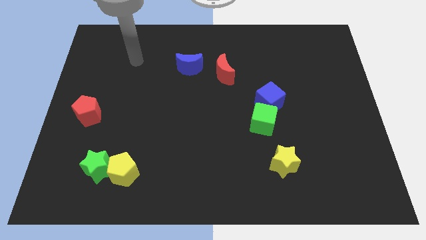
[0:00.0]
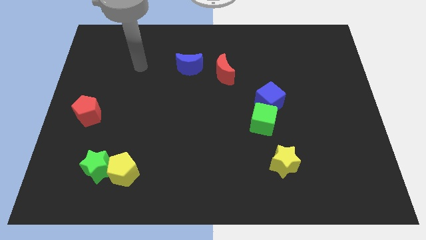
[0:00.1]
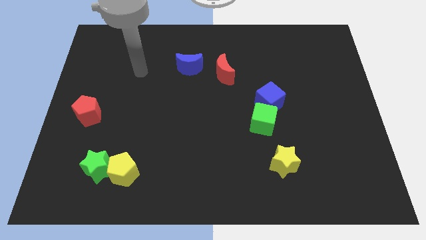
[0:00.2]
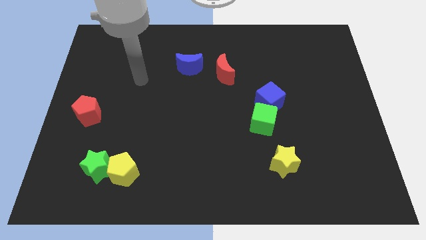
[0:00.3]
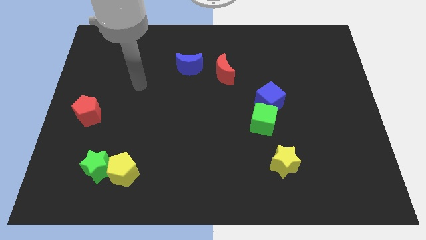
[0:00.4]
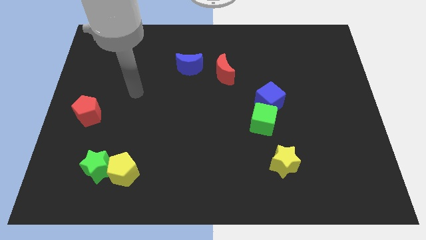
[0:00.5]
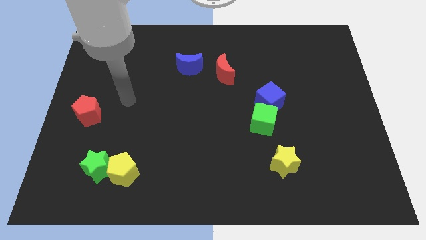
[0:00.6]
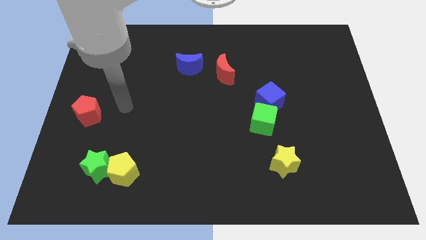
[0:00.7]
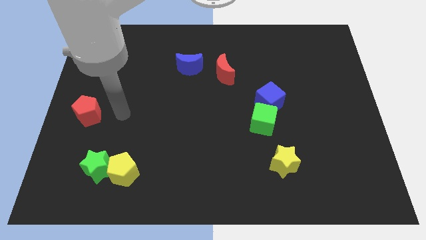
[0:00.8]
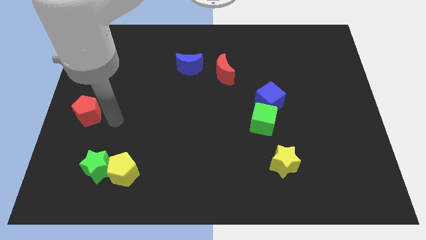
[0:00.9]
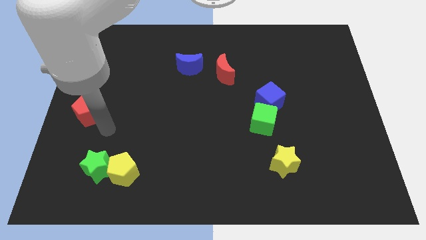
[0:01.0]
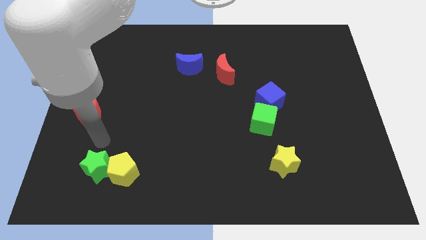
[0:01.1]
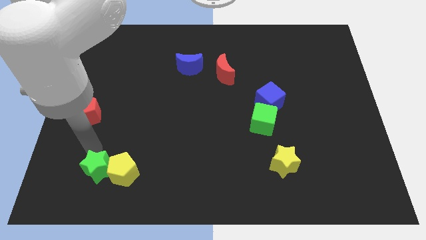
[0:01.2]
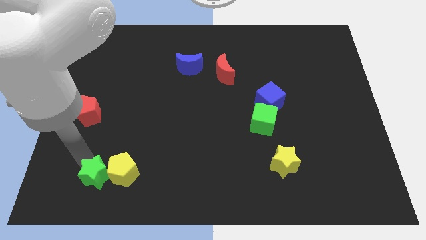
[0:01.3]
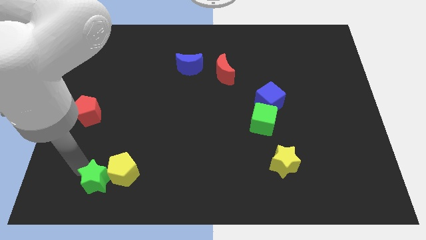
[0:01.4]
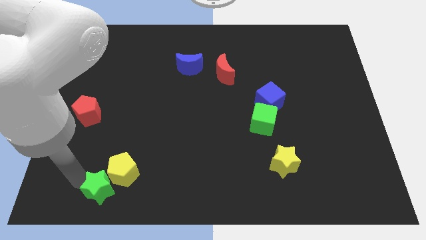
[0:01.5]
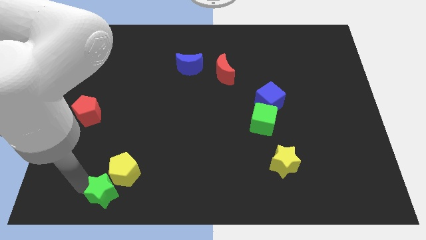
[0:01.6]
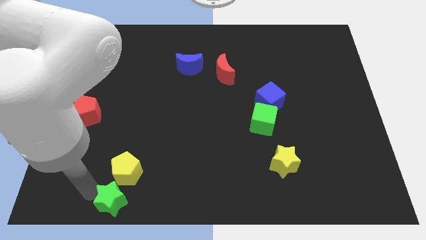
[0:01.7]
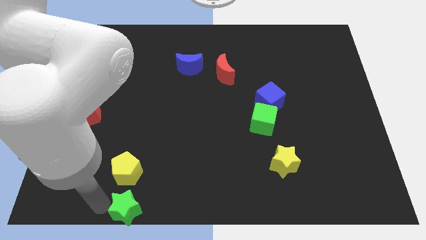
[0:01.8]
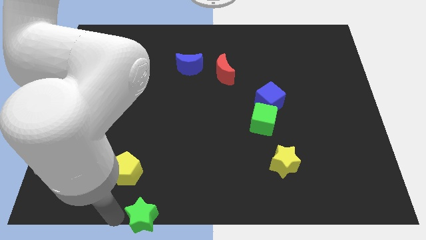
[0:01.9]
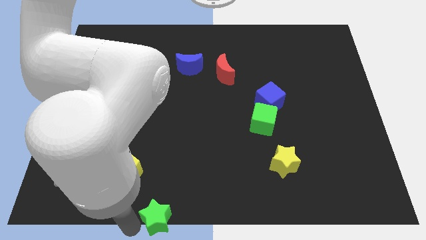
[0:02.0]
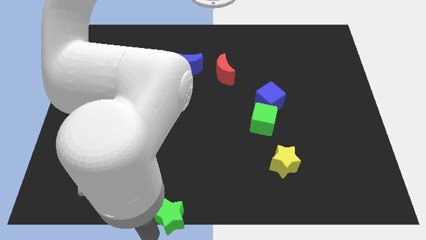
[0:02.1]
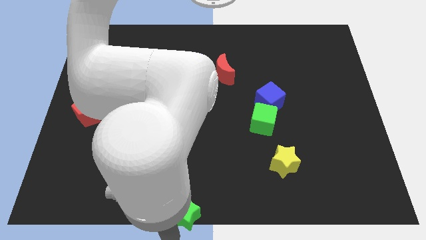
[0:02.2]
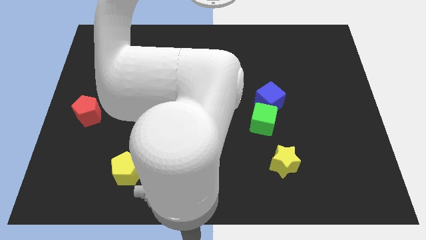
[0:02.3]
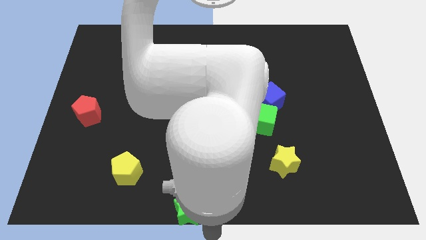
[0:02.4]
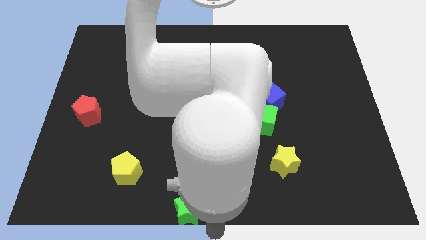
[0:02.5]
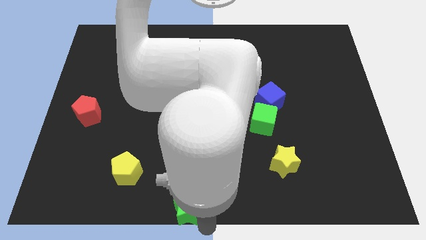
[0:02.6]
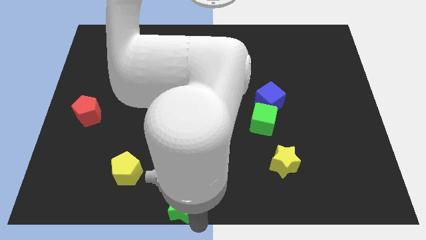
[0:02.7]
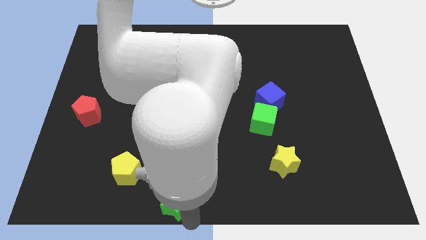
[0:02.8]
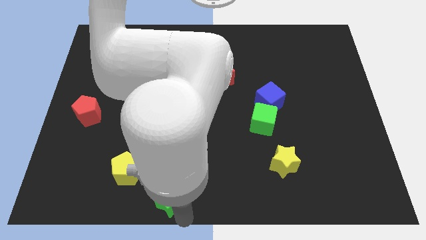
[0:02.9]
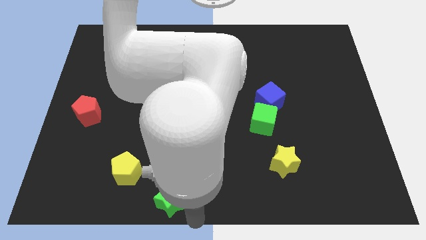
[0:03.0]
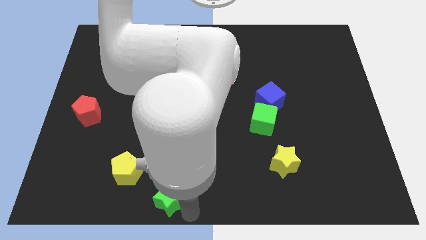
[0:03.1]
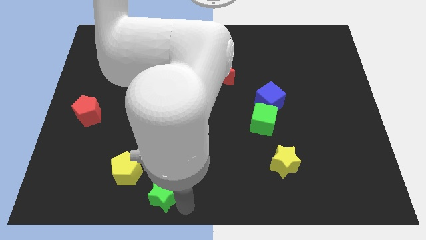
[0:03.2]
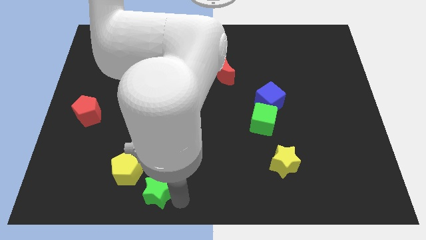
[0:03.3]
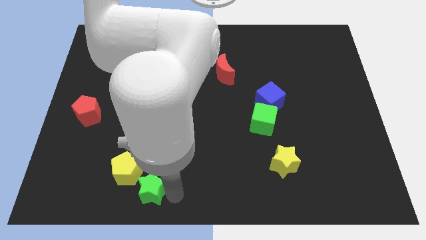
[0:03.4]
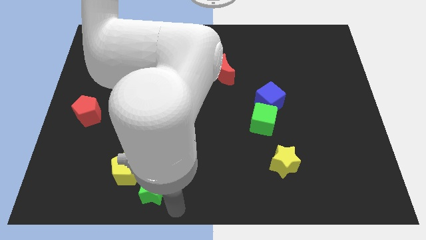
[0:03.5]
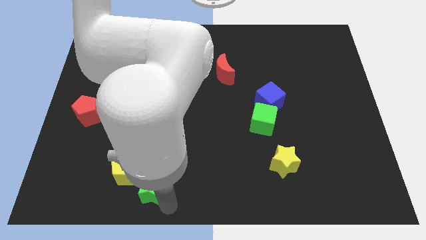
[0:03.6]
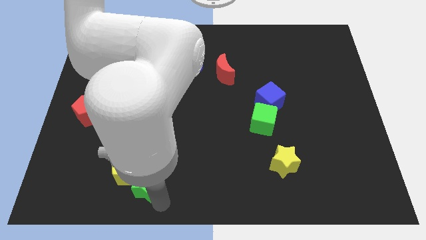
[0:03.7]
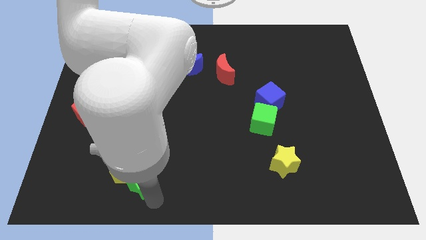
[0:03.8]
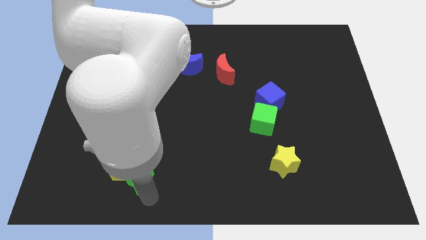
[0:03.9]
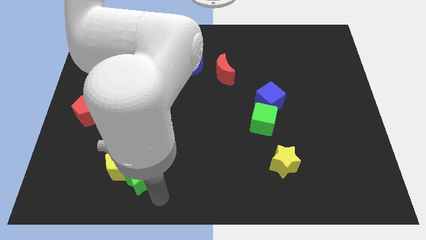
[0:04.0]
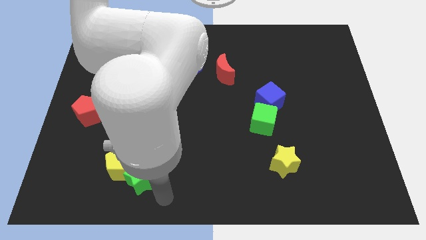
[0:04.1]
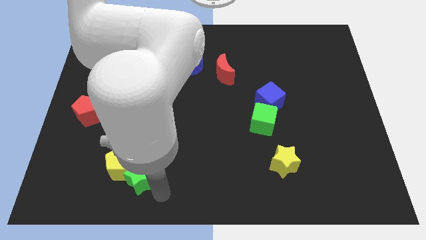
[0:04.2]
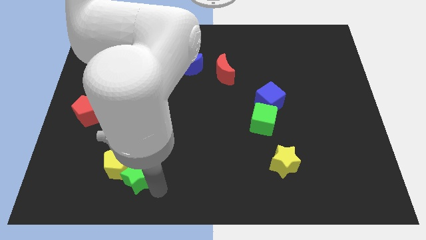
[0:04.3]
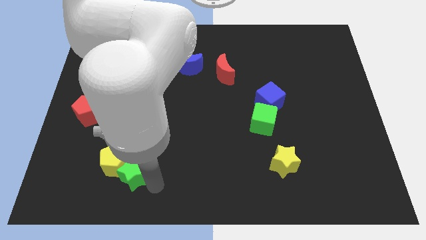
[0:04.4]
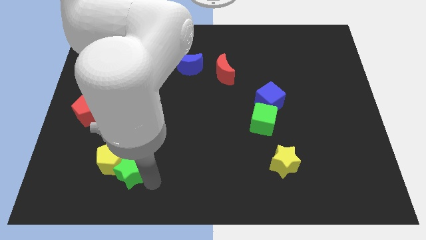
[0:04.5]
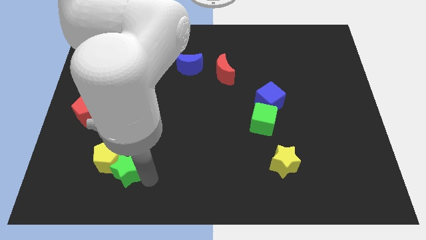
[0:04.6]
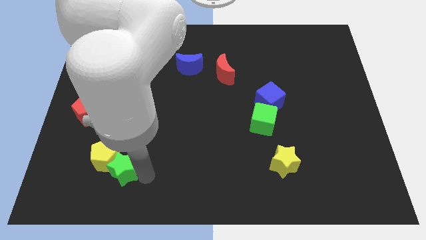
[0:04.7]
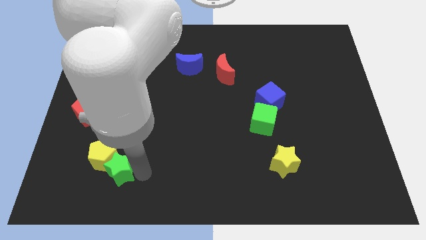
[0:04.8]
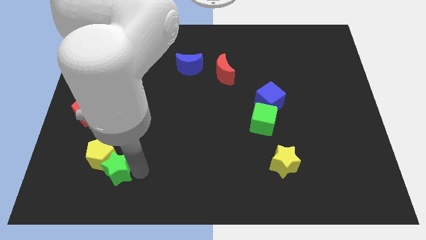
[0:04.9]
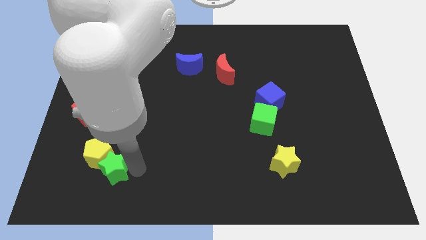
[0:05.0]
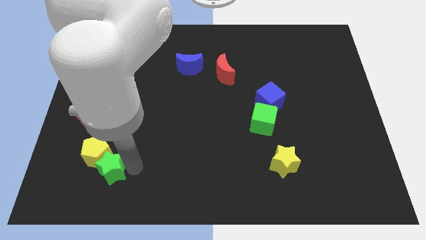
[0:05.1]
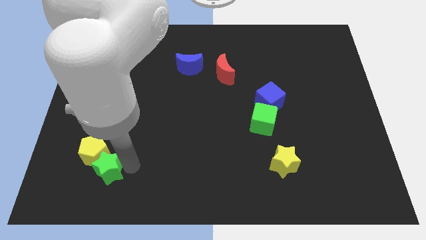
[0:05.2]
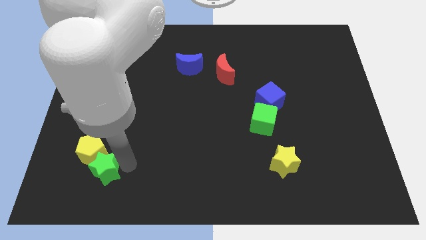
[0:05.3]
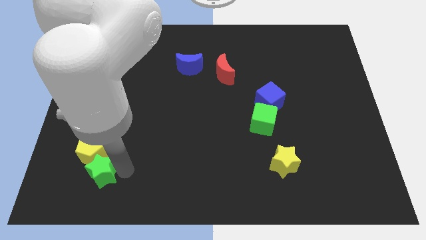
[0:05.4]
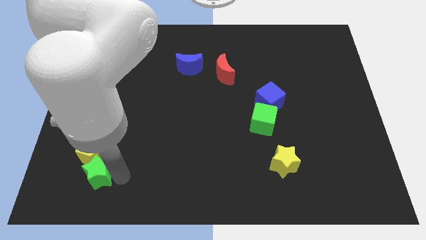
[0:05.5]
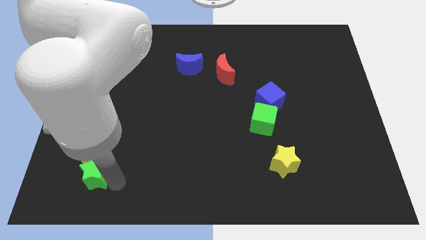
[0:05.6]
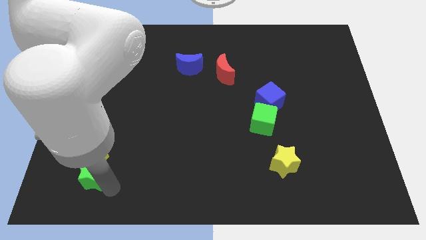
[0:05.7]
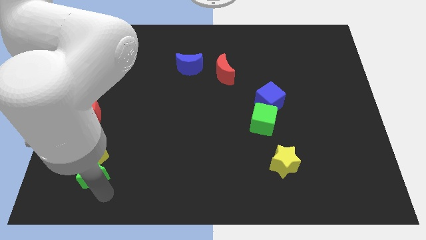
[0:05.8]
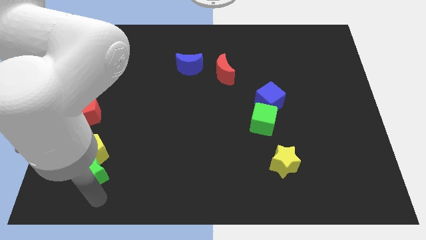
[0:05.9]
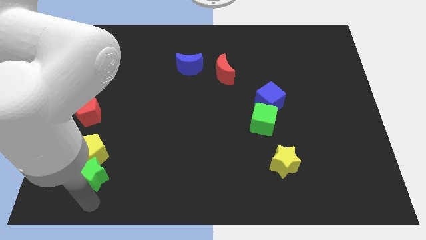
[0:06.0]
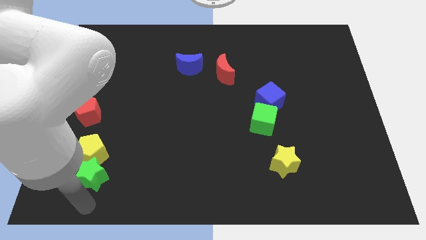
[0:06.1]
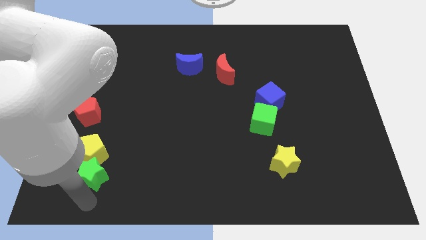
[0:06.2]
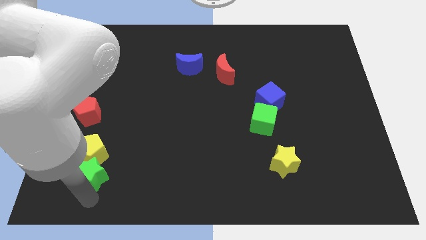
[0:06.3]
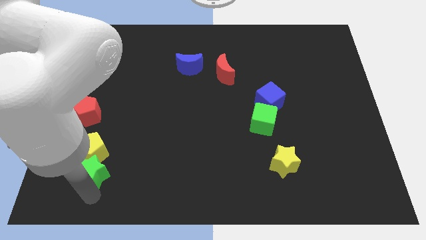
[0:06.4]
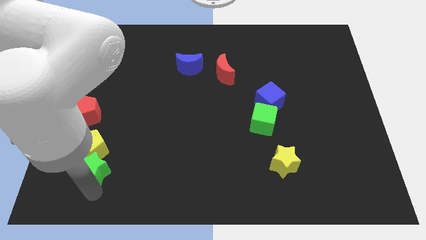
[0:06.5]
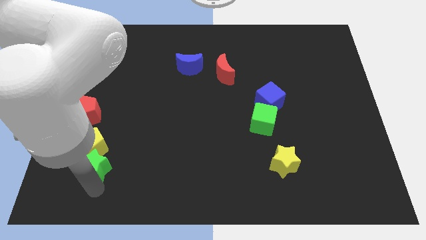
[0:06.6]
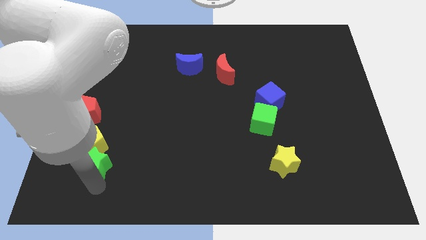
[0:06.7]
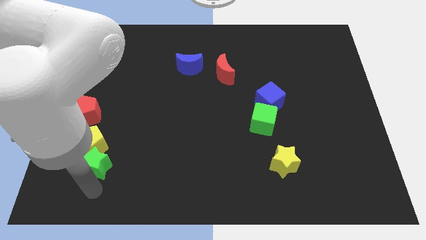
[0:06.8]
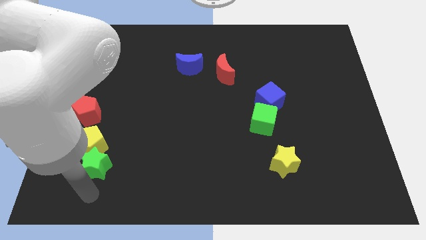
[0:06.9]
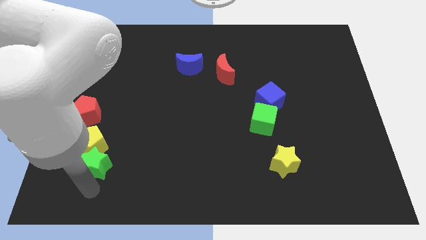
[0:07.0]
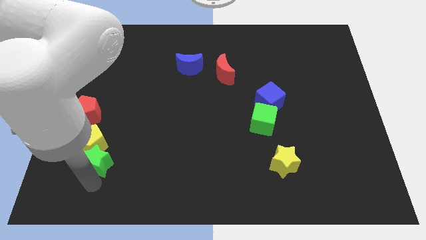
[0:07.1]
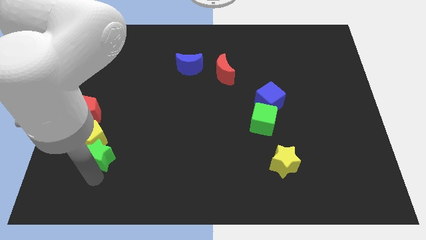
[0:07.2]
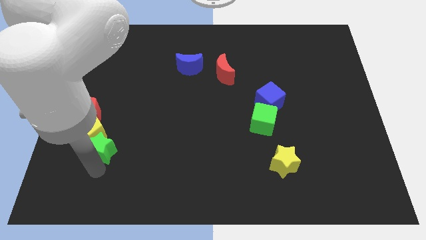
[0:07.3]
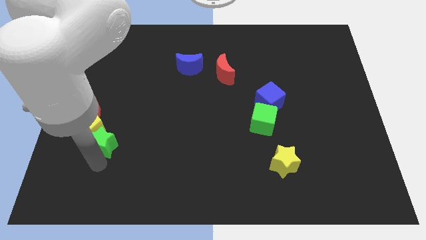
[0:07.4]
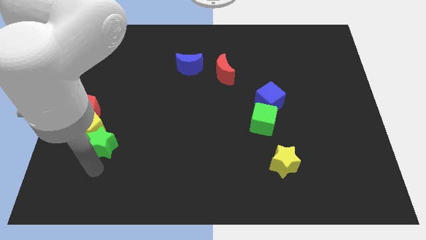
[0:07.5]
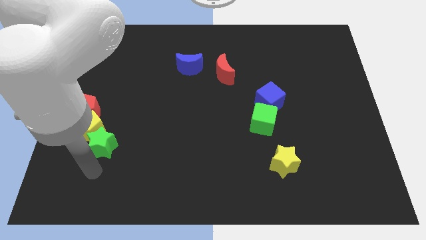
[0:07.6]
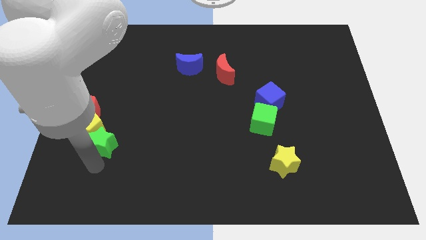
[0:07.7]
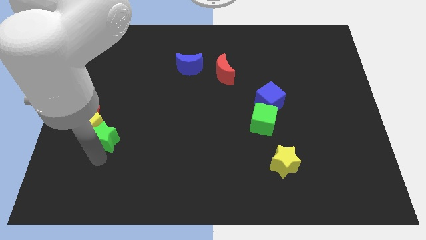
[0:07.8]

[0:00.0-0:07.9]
push the green star upwards a bit

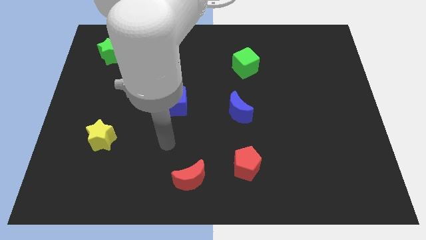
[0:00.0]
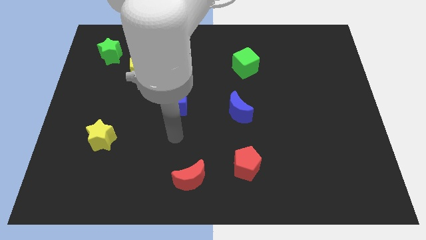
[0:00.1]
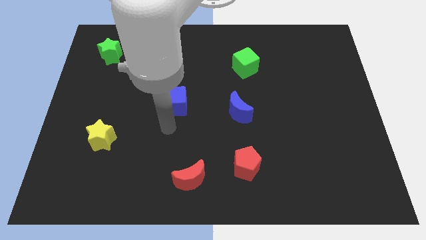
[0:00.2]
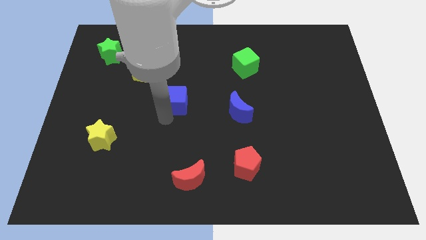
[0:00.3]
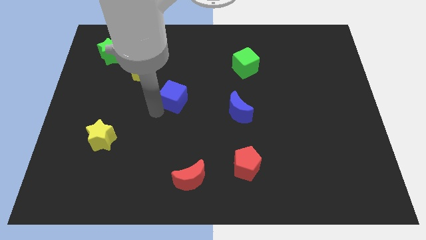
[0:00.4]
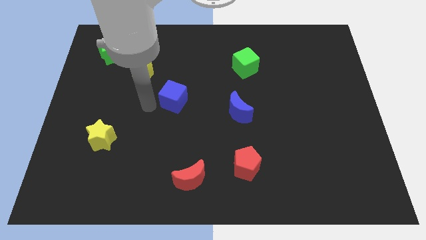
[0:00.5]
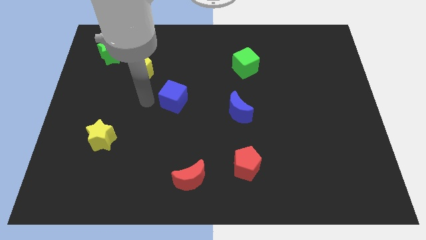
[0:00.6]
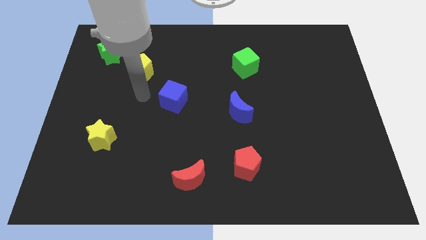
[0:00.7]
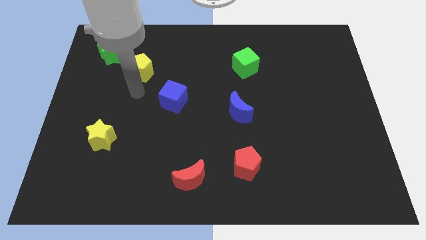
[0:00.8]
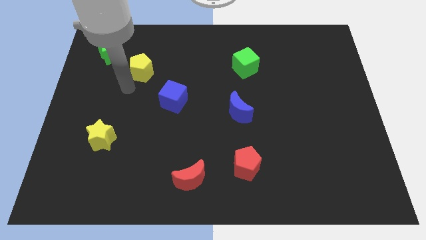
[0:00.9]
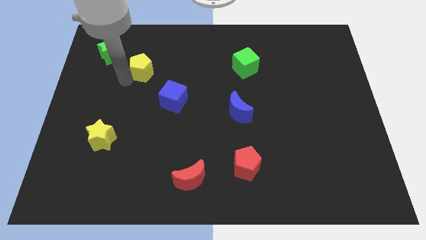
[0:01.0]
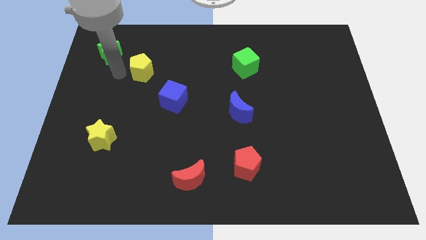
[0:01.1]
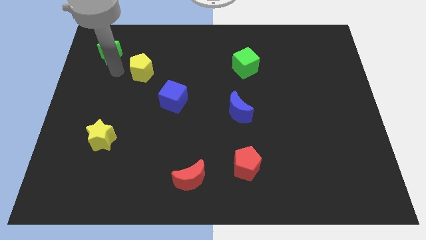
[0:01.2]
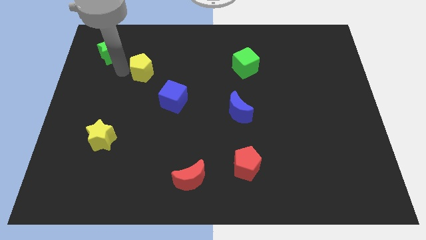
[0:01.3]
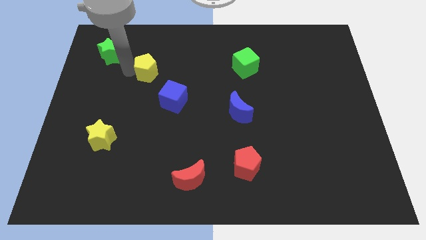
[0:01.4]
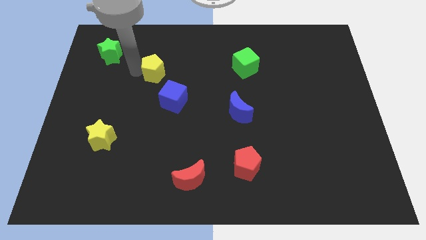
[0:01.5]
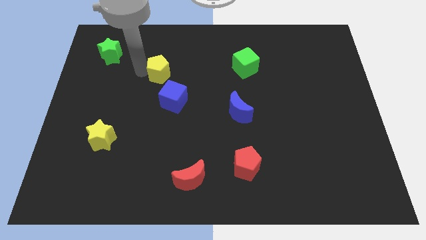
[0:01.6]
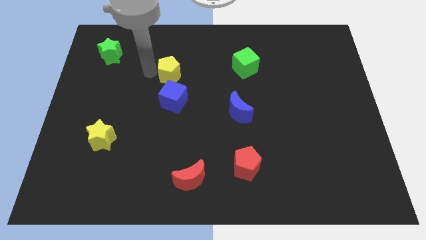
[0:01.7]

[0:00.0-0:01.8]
move the yellow pentagon right a bit
